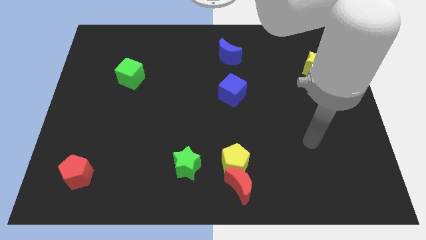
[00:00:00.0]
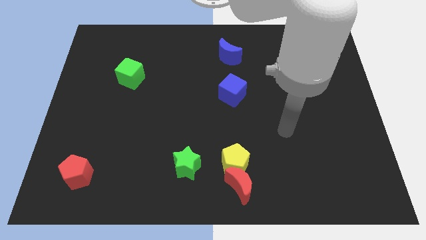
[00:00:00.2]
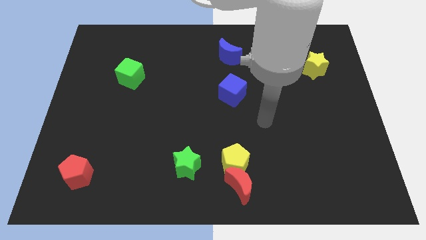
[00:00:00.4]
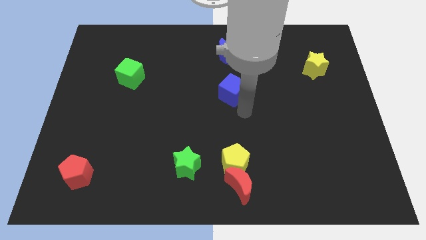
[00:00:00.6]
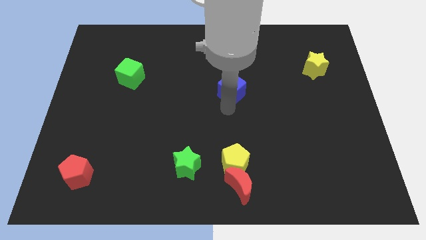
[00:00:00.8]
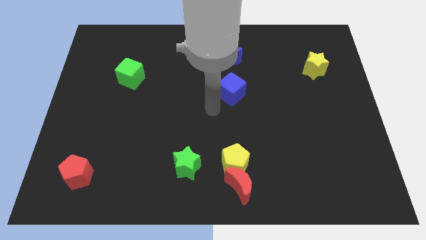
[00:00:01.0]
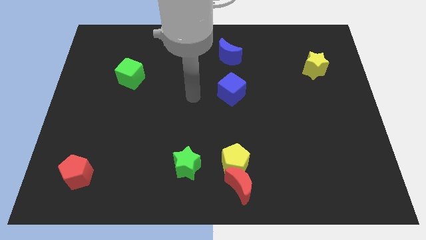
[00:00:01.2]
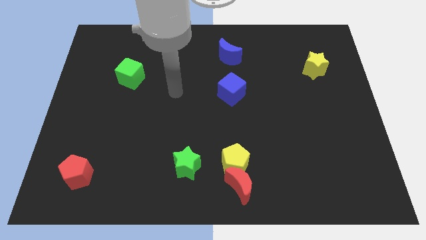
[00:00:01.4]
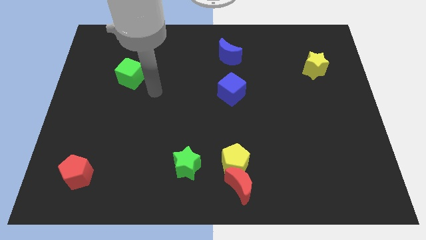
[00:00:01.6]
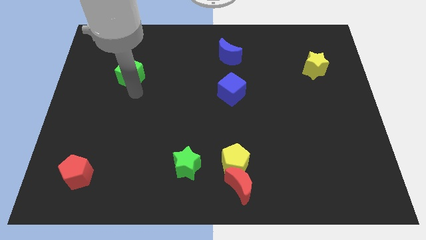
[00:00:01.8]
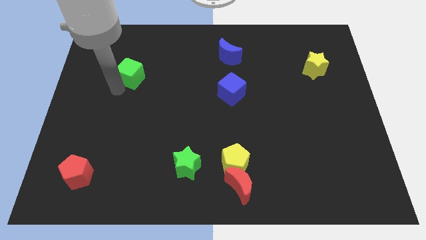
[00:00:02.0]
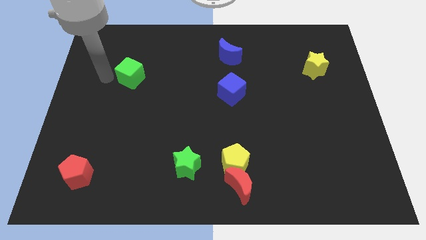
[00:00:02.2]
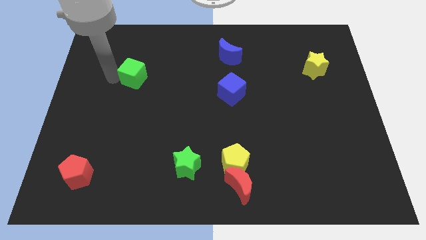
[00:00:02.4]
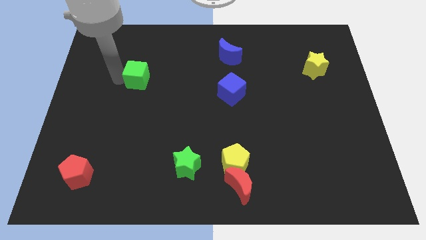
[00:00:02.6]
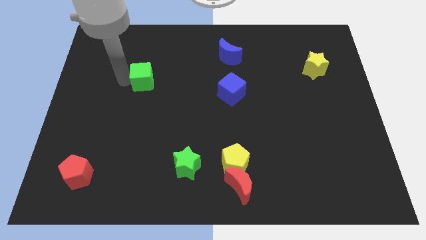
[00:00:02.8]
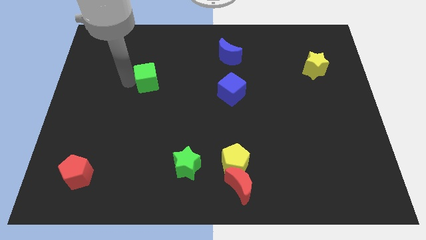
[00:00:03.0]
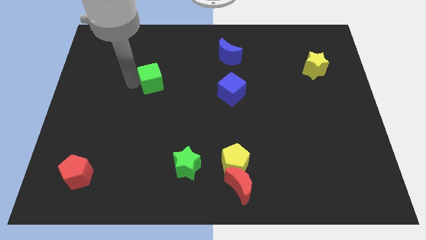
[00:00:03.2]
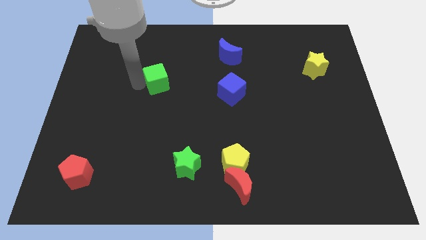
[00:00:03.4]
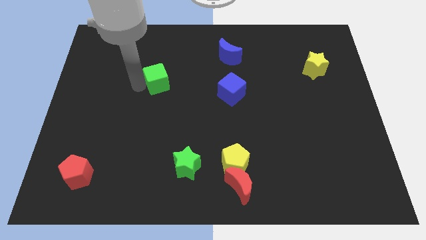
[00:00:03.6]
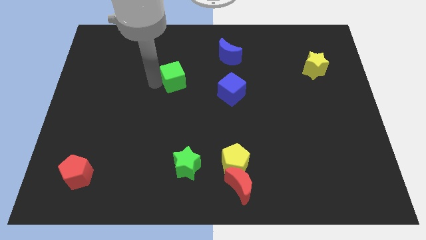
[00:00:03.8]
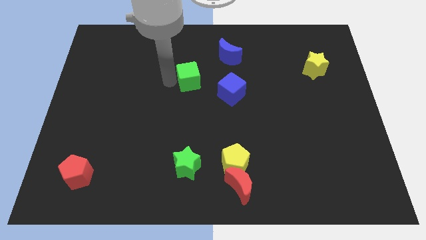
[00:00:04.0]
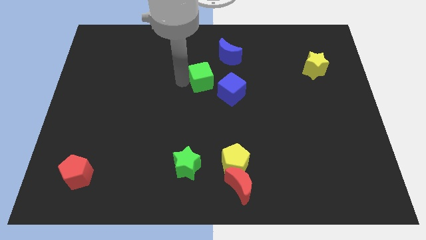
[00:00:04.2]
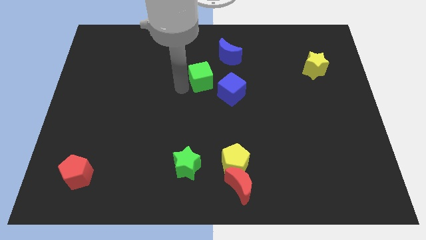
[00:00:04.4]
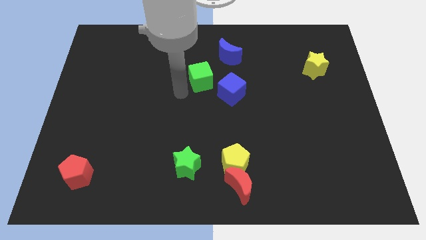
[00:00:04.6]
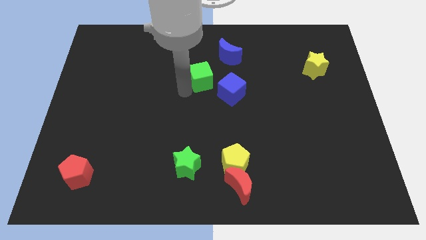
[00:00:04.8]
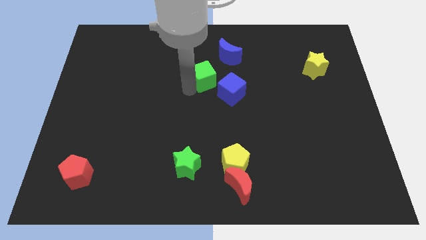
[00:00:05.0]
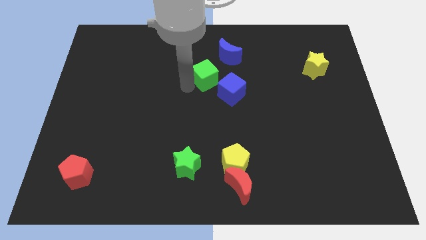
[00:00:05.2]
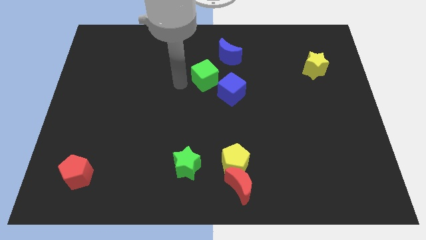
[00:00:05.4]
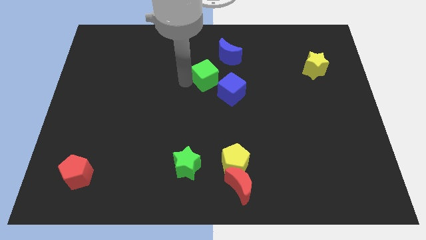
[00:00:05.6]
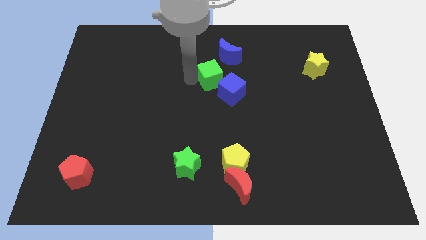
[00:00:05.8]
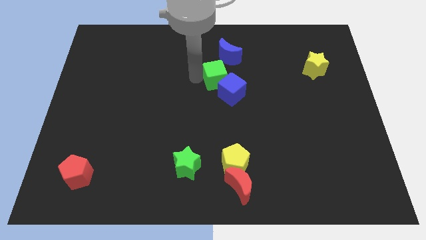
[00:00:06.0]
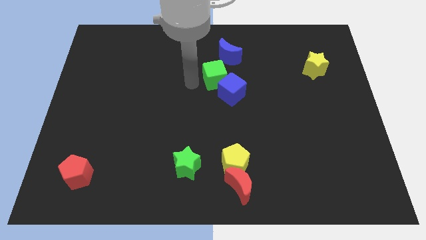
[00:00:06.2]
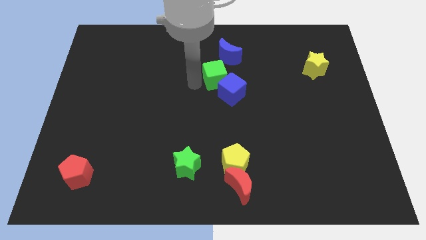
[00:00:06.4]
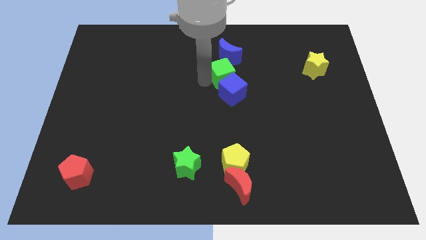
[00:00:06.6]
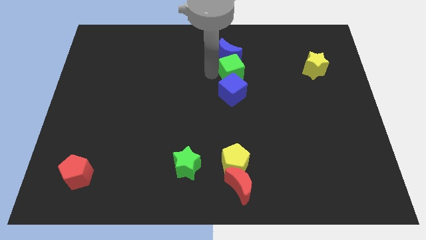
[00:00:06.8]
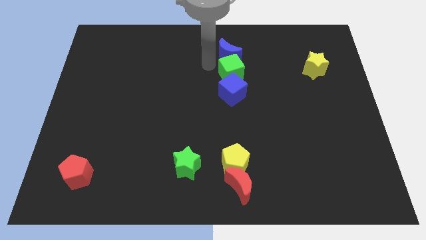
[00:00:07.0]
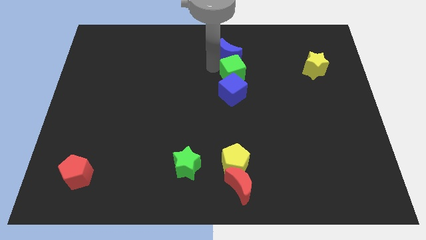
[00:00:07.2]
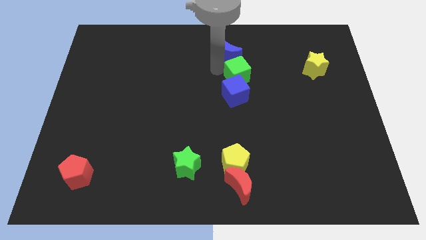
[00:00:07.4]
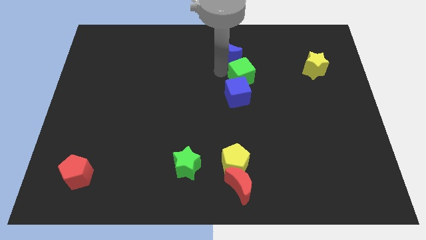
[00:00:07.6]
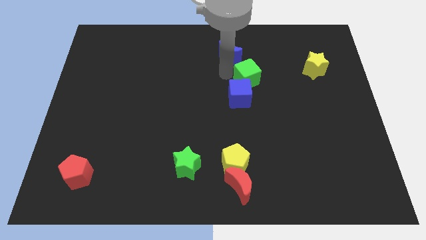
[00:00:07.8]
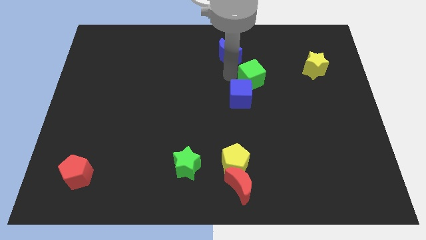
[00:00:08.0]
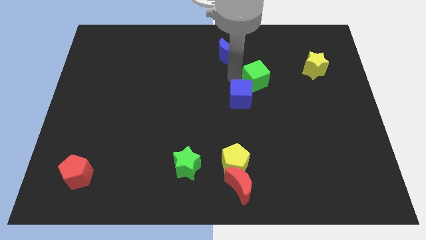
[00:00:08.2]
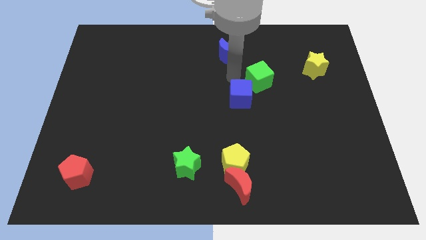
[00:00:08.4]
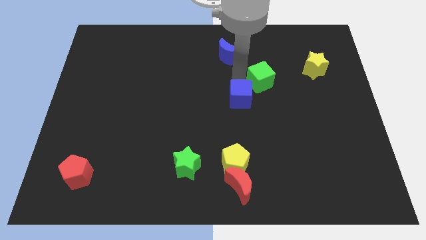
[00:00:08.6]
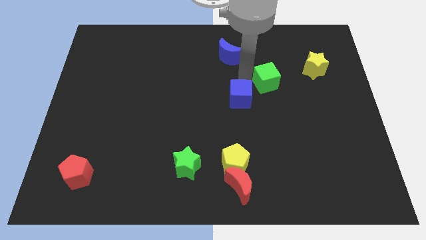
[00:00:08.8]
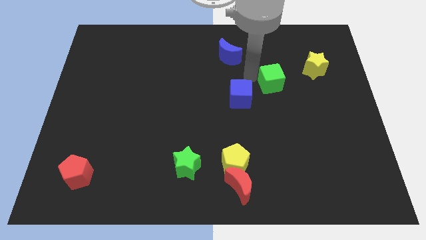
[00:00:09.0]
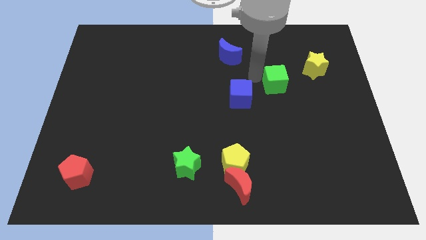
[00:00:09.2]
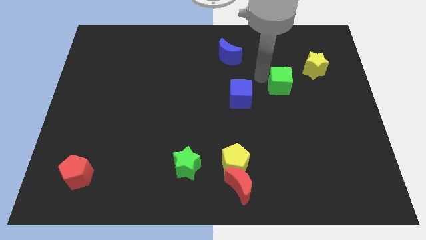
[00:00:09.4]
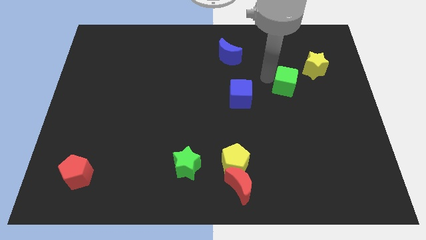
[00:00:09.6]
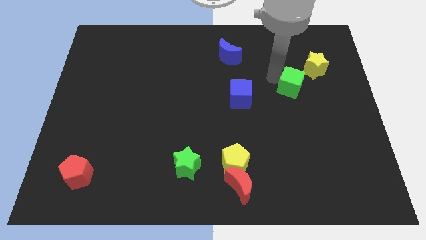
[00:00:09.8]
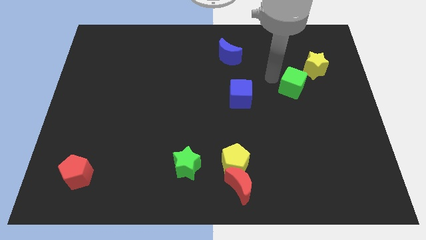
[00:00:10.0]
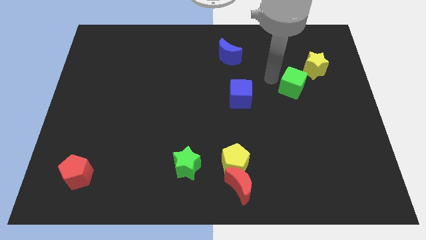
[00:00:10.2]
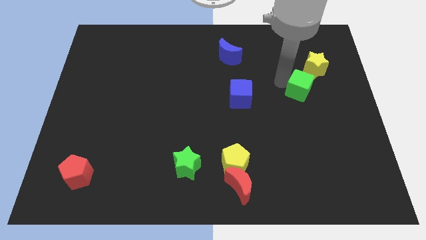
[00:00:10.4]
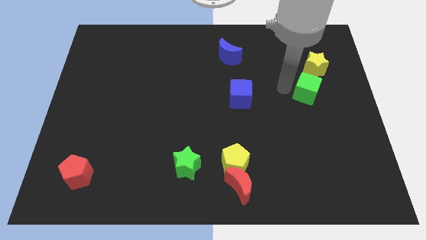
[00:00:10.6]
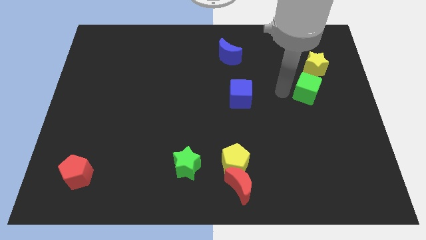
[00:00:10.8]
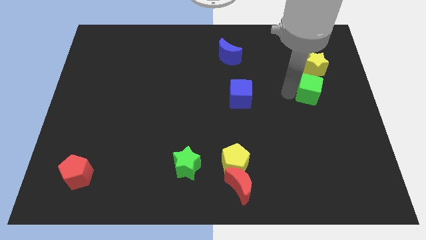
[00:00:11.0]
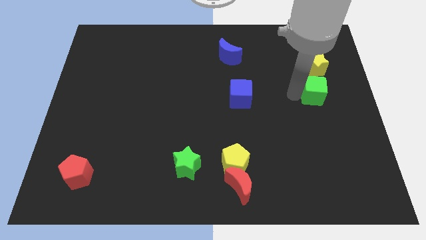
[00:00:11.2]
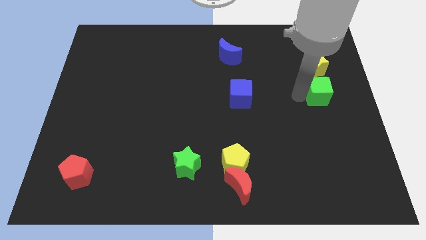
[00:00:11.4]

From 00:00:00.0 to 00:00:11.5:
put the green cube to the right side
